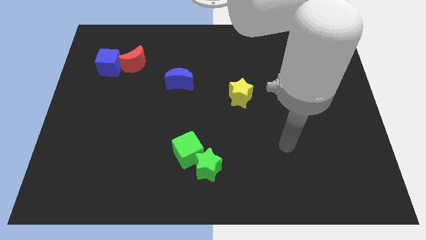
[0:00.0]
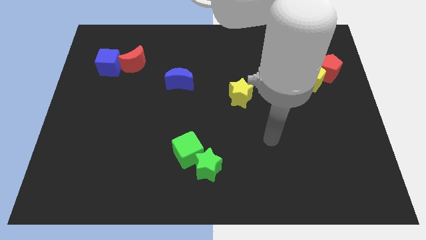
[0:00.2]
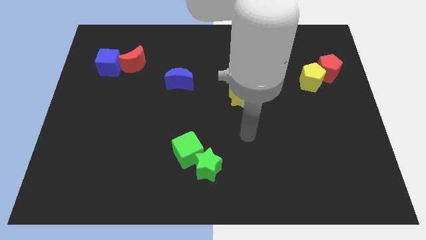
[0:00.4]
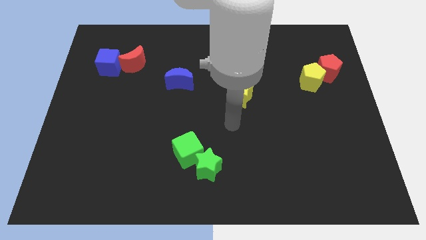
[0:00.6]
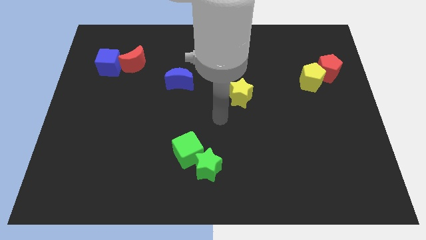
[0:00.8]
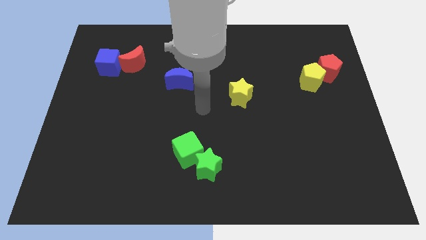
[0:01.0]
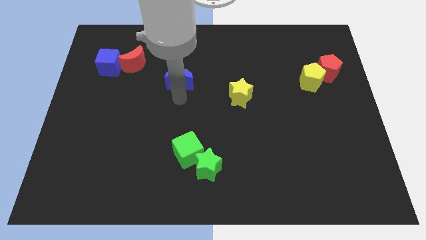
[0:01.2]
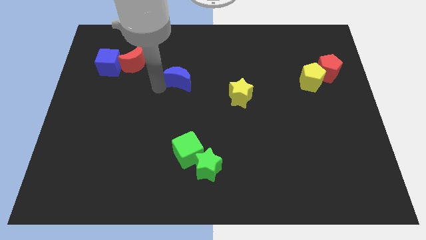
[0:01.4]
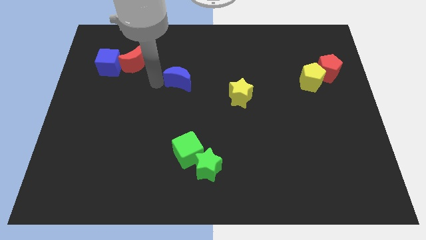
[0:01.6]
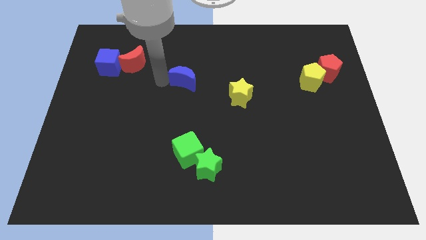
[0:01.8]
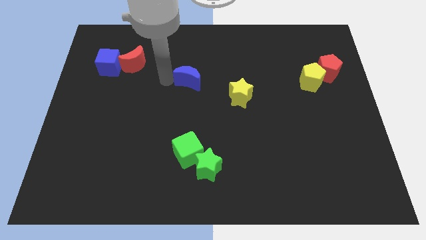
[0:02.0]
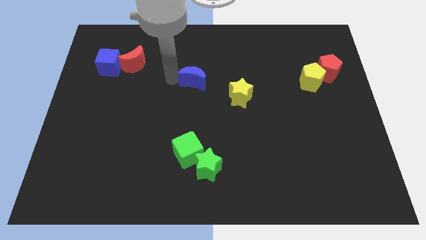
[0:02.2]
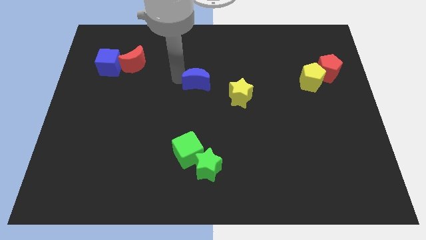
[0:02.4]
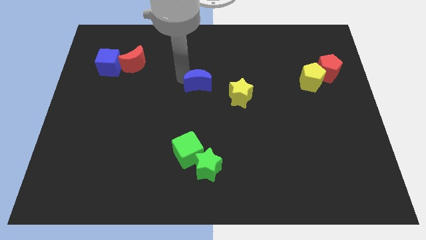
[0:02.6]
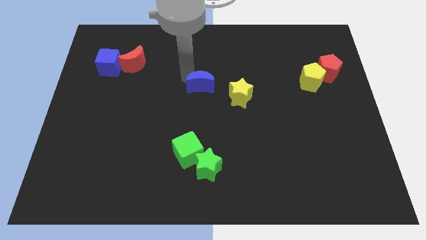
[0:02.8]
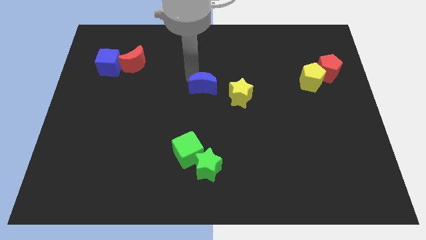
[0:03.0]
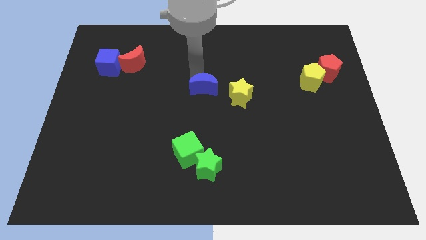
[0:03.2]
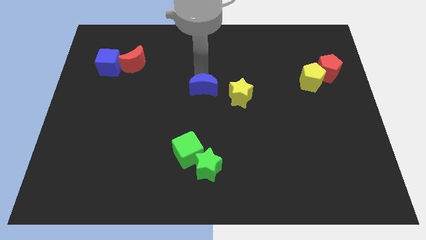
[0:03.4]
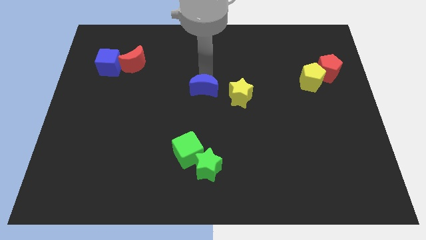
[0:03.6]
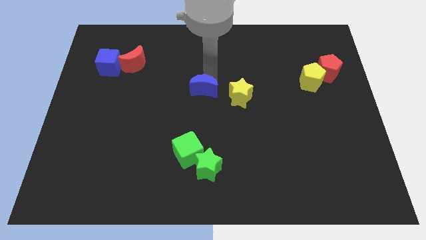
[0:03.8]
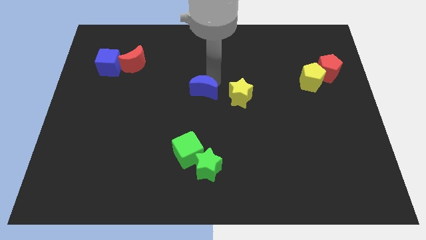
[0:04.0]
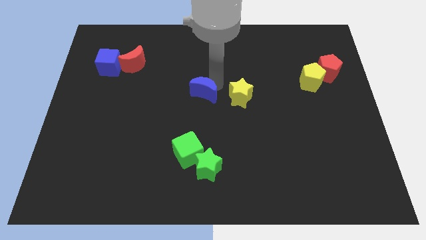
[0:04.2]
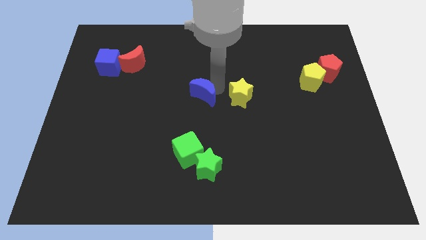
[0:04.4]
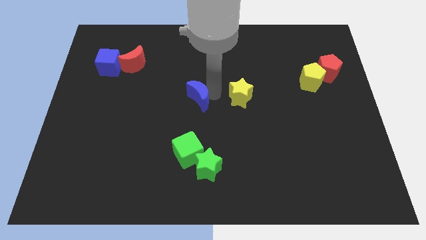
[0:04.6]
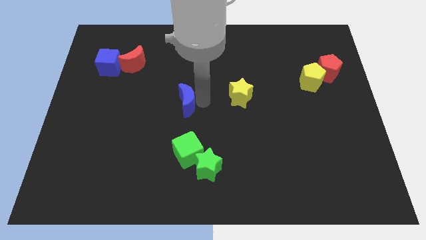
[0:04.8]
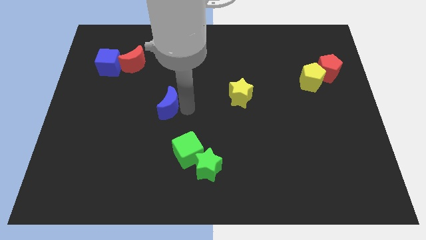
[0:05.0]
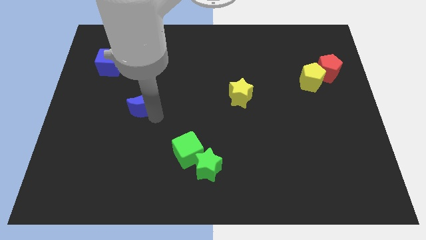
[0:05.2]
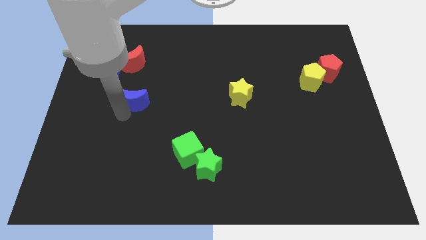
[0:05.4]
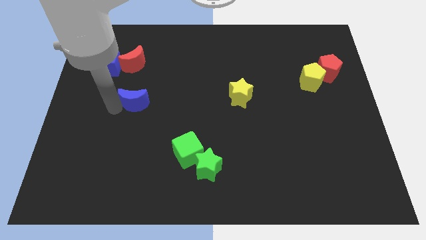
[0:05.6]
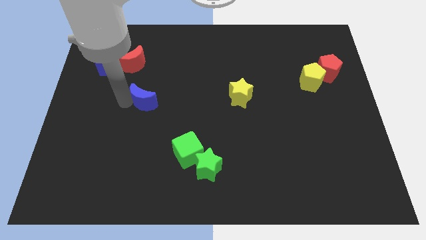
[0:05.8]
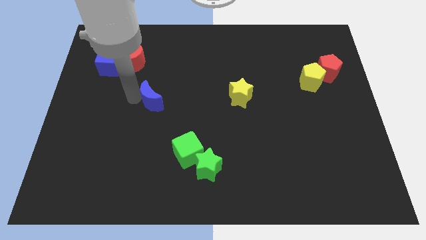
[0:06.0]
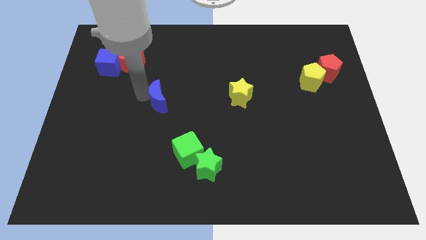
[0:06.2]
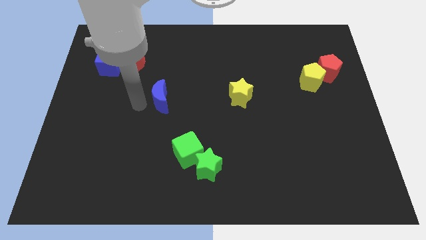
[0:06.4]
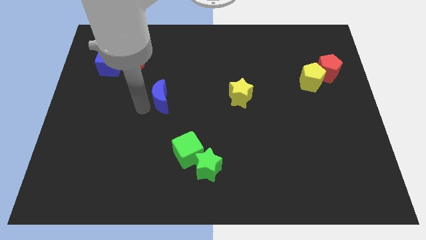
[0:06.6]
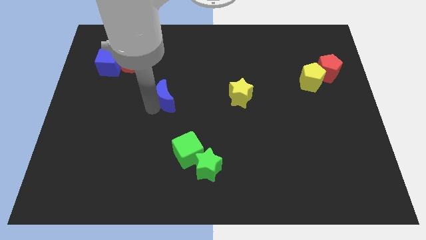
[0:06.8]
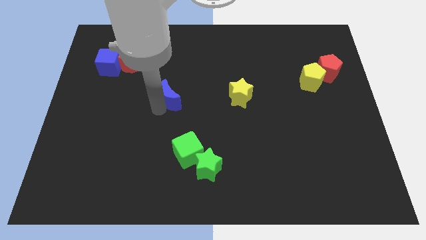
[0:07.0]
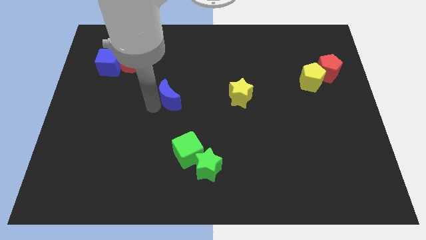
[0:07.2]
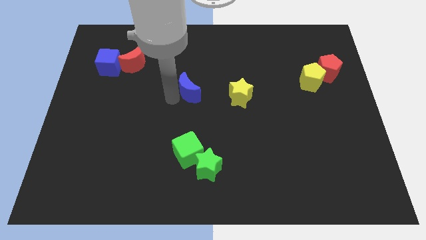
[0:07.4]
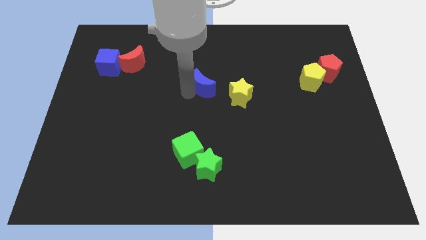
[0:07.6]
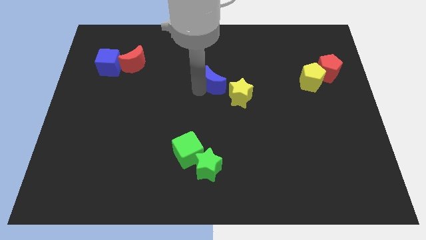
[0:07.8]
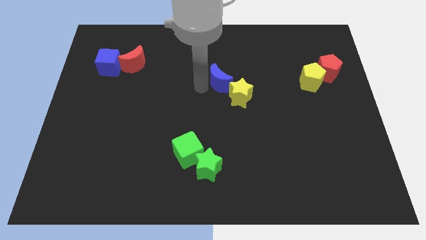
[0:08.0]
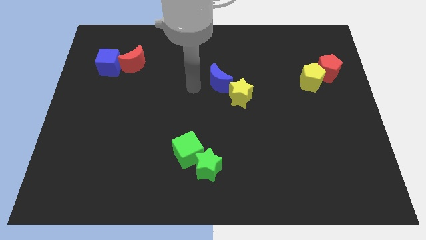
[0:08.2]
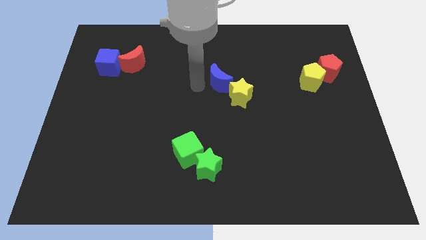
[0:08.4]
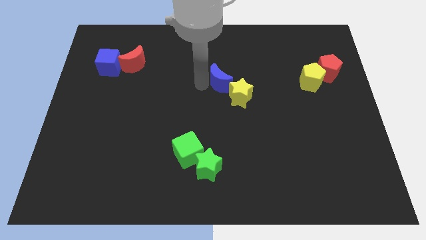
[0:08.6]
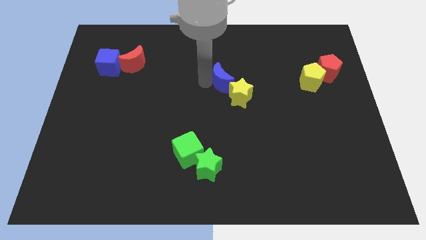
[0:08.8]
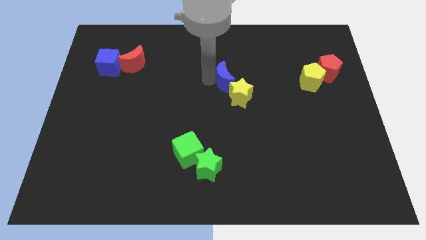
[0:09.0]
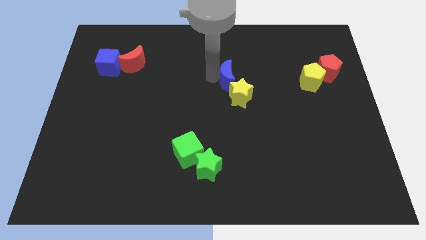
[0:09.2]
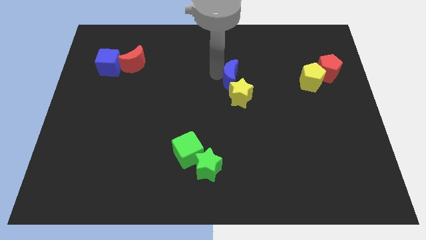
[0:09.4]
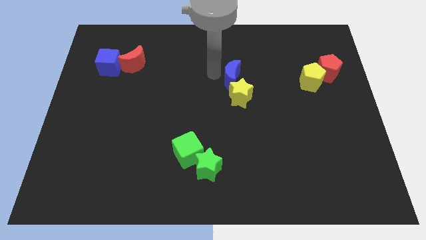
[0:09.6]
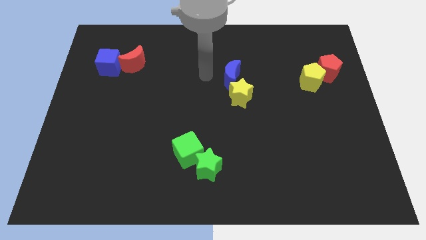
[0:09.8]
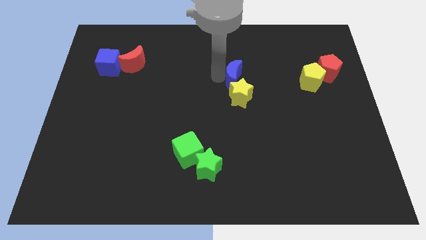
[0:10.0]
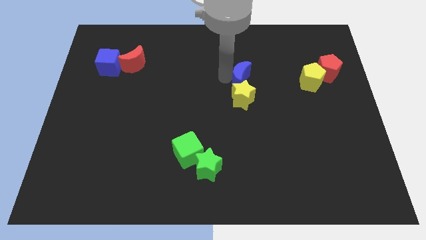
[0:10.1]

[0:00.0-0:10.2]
push the blue moon diagonally up and to the right of the yellow star

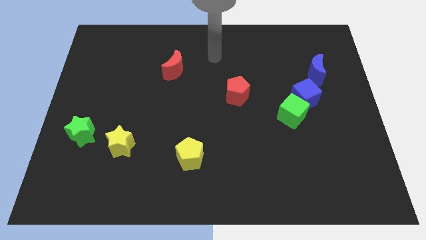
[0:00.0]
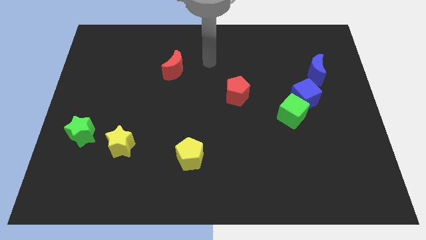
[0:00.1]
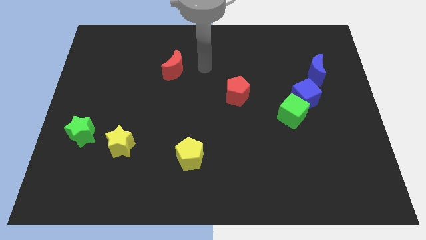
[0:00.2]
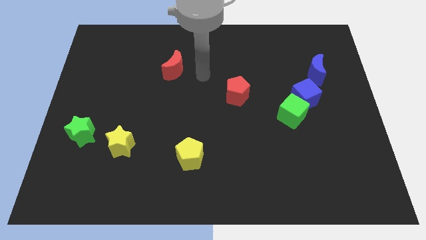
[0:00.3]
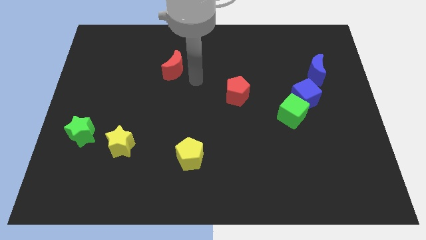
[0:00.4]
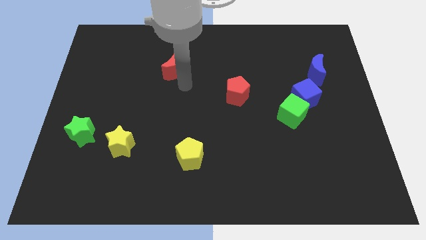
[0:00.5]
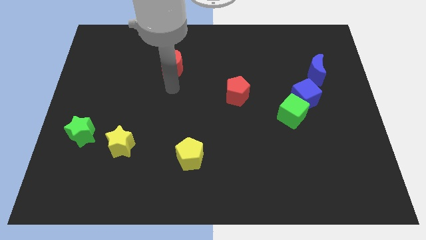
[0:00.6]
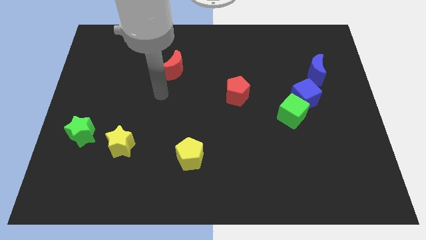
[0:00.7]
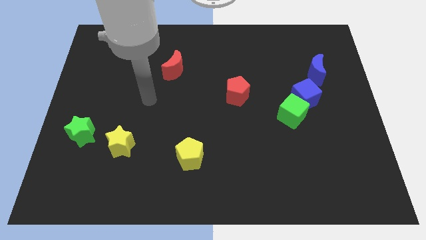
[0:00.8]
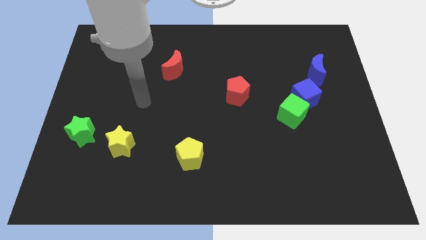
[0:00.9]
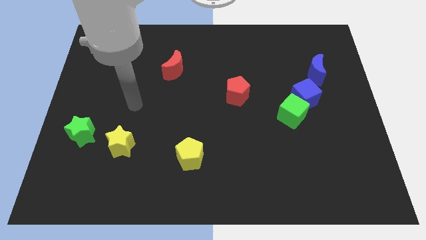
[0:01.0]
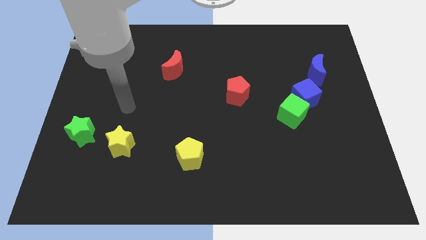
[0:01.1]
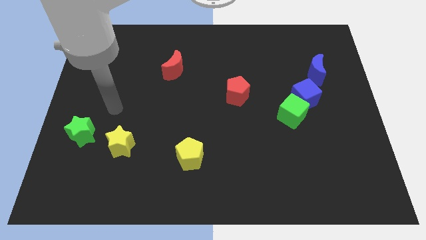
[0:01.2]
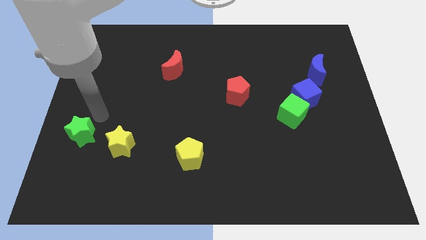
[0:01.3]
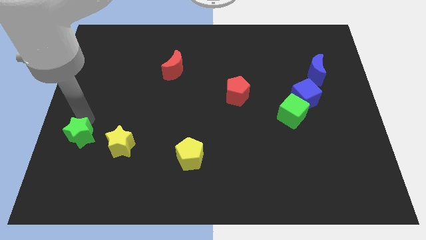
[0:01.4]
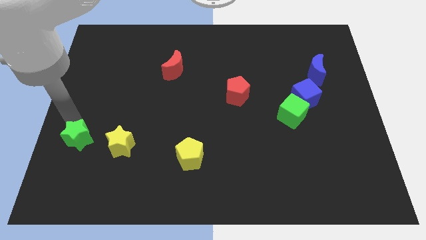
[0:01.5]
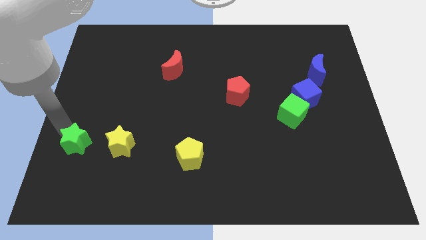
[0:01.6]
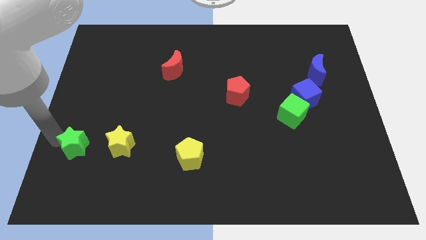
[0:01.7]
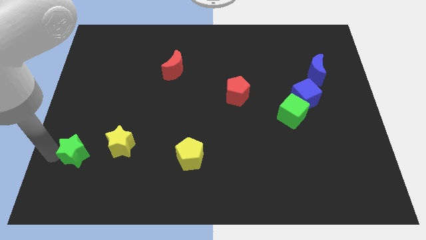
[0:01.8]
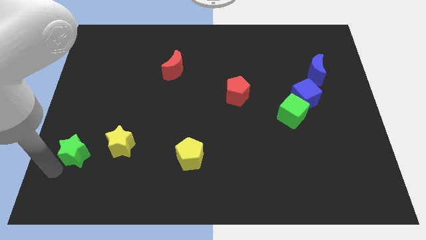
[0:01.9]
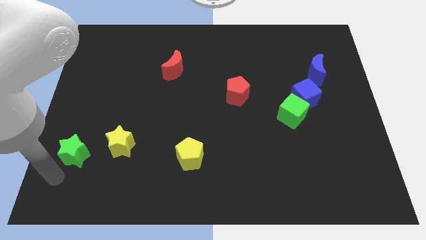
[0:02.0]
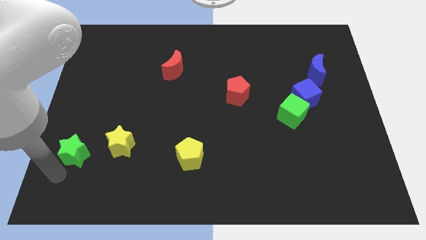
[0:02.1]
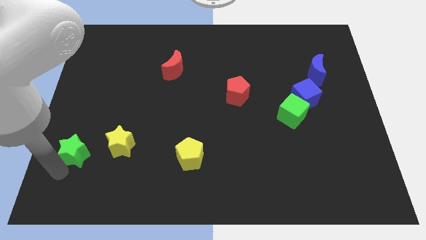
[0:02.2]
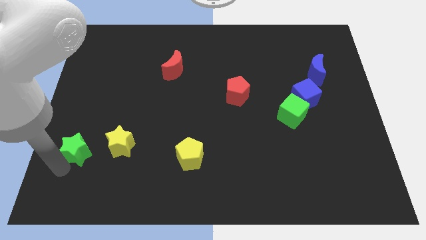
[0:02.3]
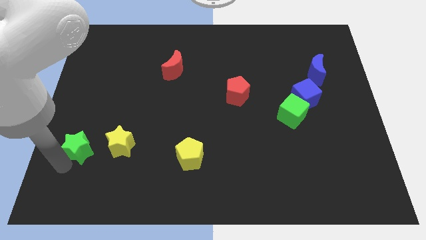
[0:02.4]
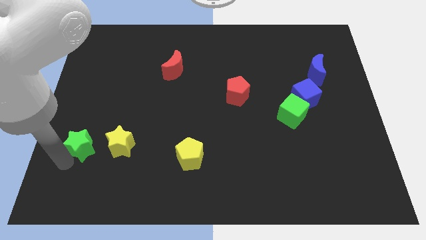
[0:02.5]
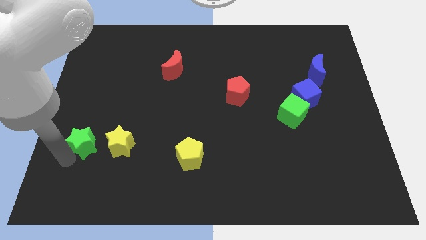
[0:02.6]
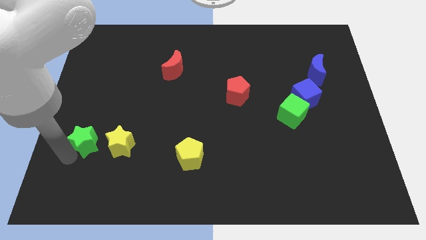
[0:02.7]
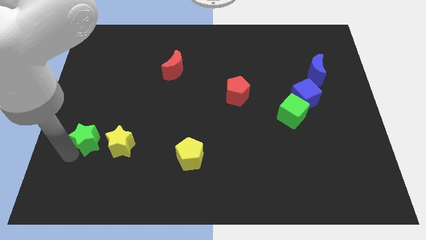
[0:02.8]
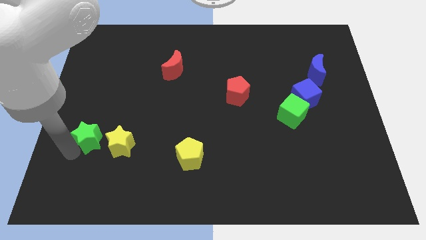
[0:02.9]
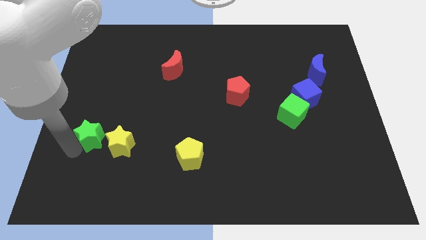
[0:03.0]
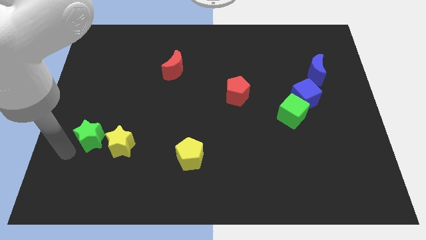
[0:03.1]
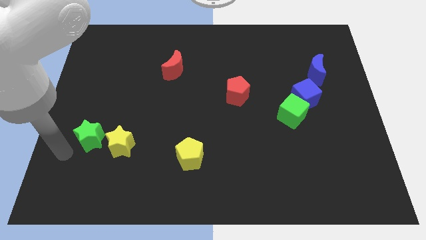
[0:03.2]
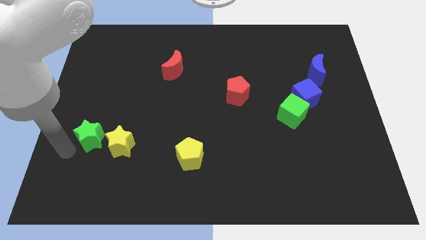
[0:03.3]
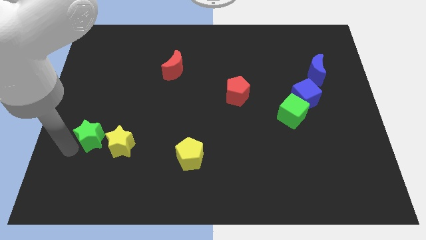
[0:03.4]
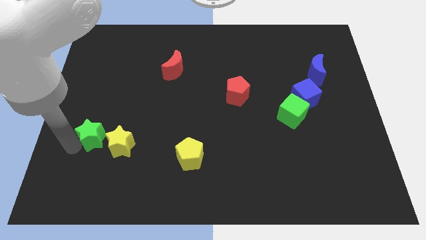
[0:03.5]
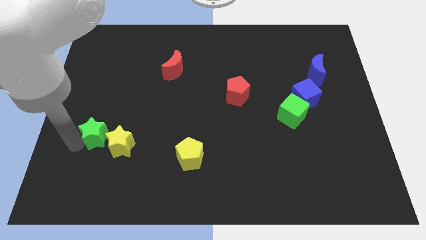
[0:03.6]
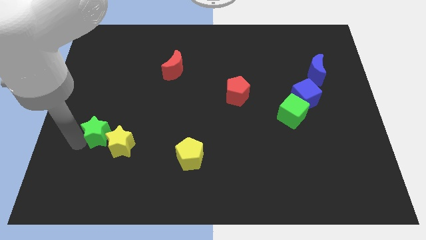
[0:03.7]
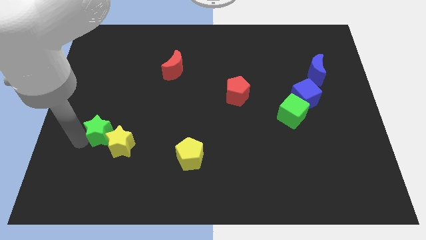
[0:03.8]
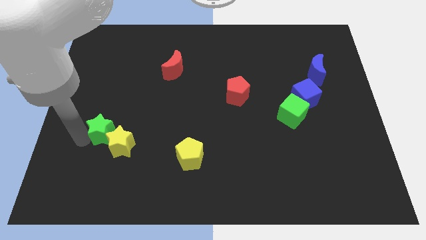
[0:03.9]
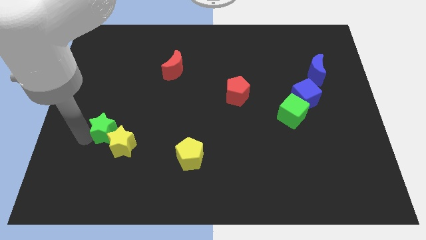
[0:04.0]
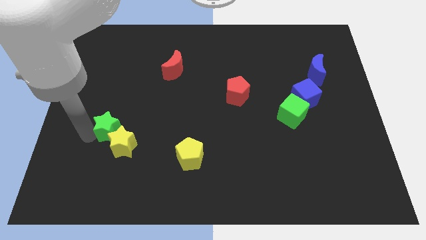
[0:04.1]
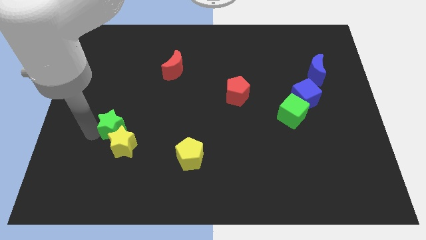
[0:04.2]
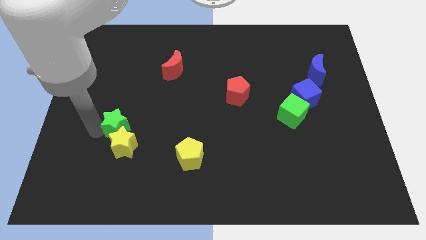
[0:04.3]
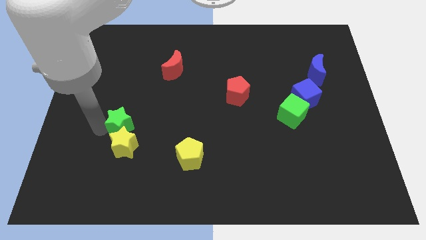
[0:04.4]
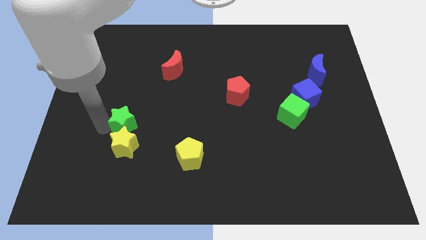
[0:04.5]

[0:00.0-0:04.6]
put the green star to the top right of the yellow star
